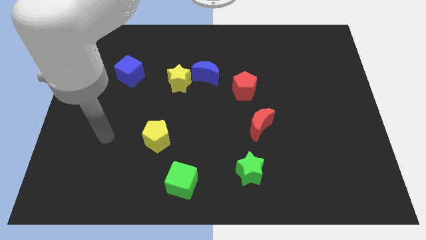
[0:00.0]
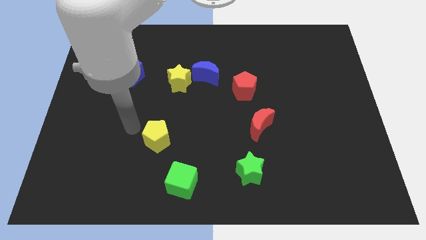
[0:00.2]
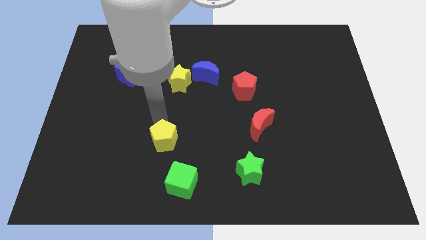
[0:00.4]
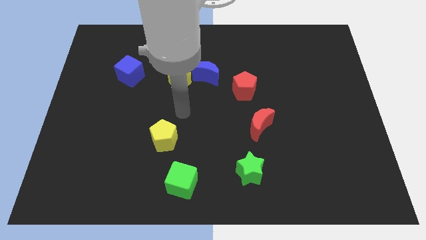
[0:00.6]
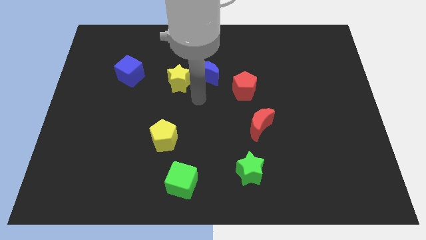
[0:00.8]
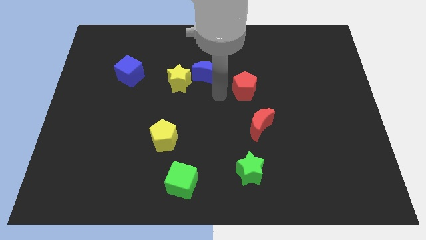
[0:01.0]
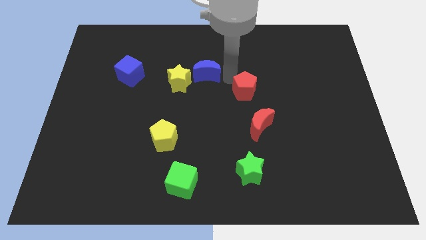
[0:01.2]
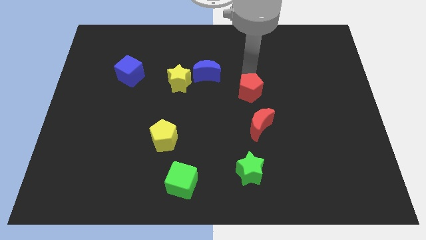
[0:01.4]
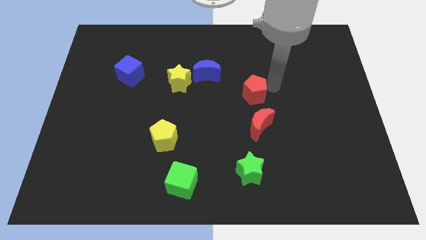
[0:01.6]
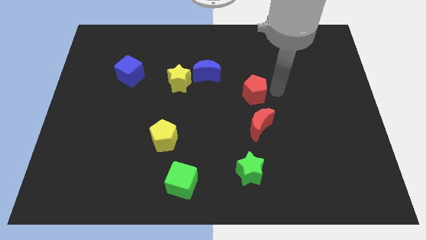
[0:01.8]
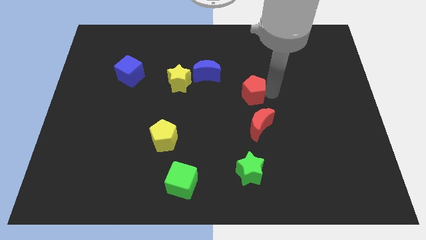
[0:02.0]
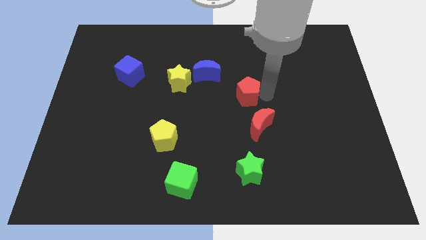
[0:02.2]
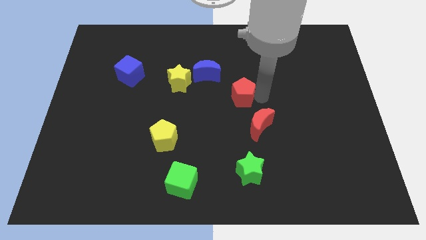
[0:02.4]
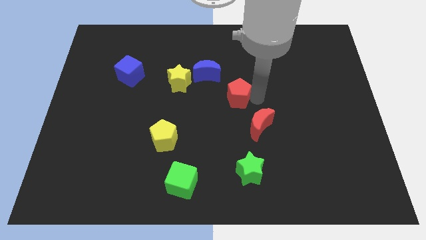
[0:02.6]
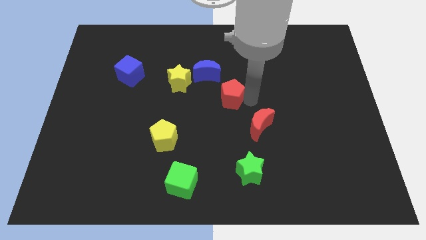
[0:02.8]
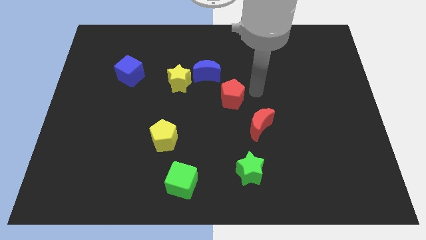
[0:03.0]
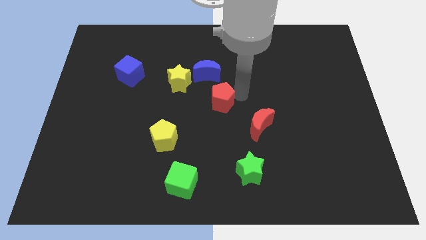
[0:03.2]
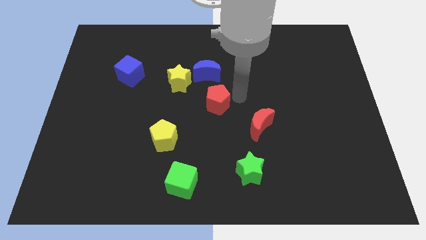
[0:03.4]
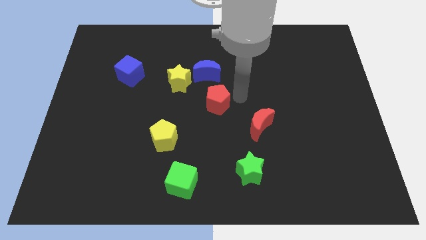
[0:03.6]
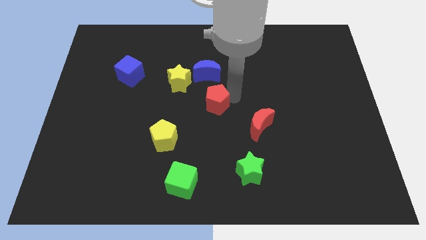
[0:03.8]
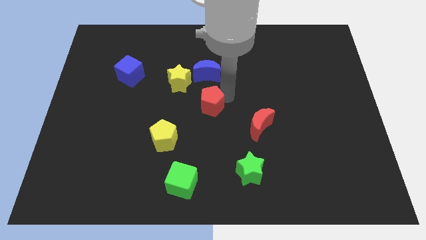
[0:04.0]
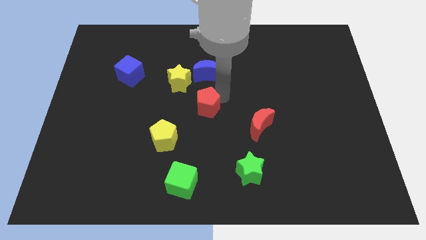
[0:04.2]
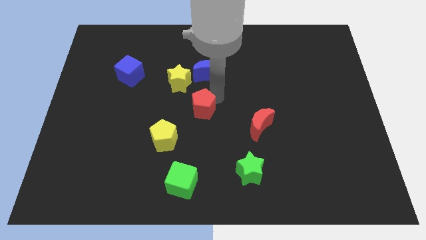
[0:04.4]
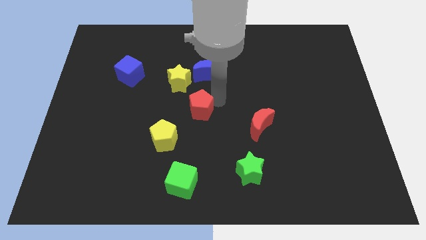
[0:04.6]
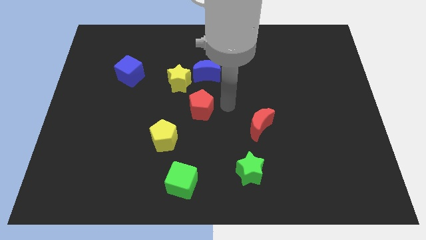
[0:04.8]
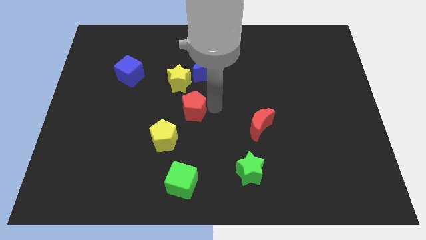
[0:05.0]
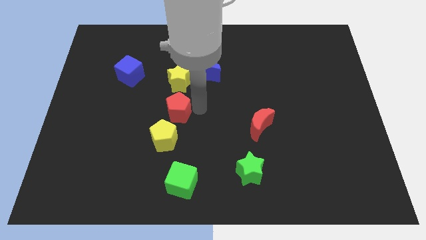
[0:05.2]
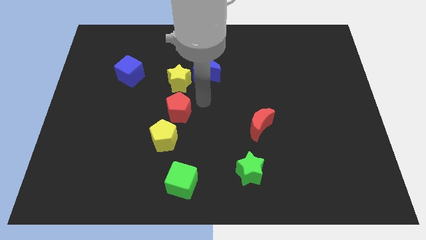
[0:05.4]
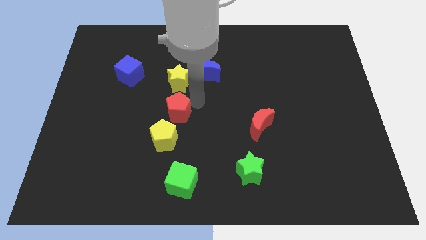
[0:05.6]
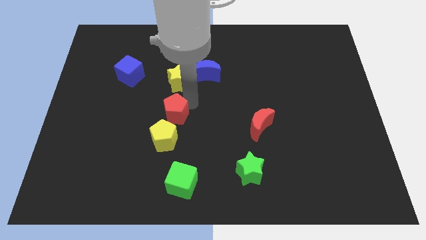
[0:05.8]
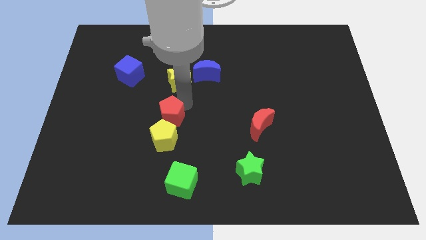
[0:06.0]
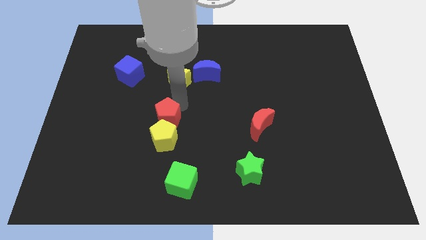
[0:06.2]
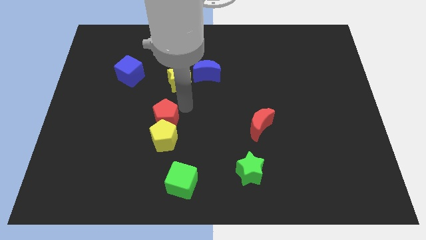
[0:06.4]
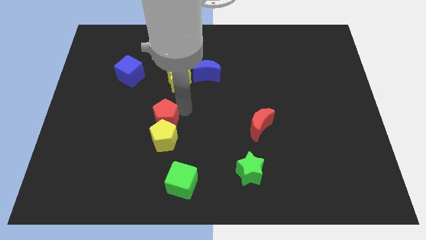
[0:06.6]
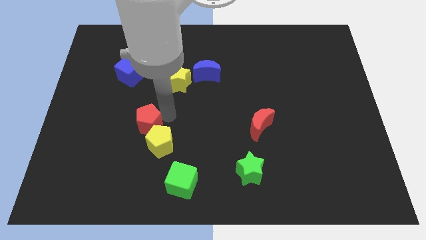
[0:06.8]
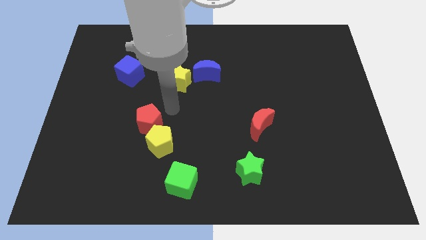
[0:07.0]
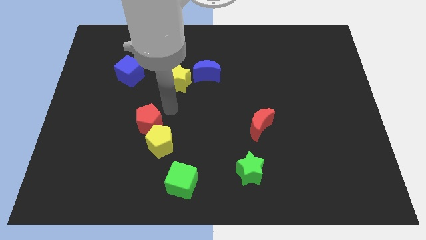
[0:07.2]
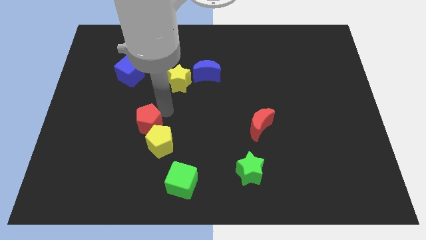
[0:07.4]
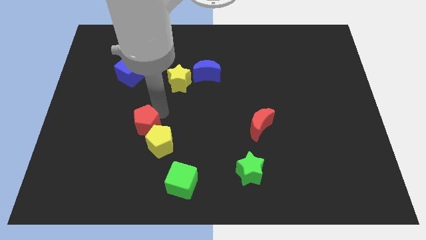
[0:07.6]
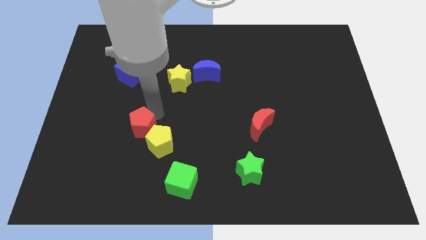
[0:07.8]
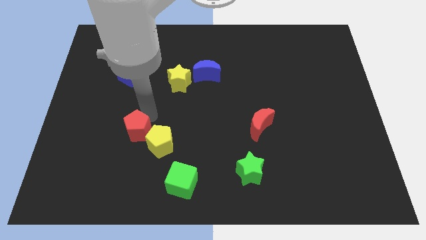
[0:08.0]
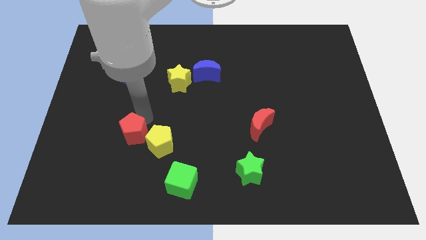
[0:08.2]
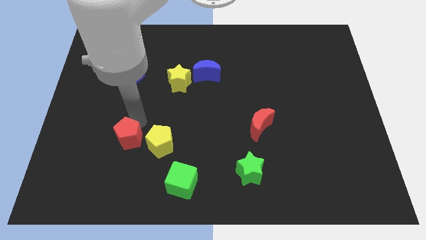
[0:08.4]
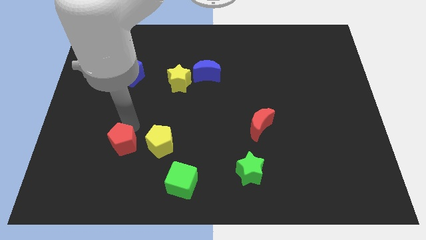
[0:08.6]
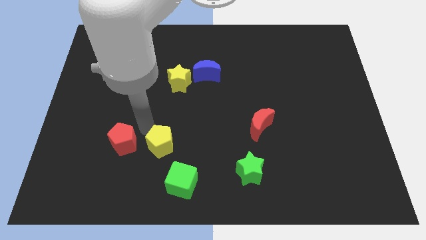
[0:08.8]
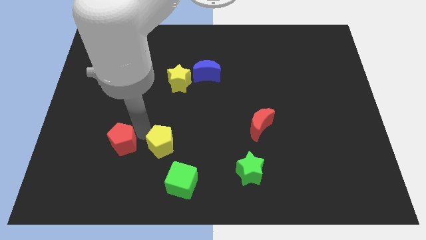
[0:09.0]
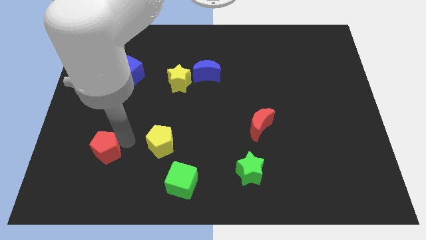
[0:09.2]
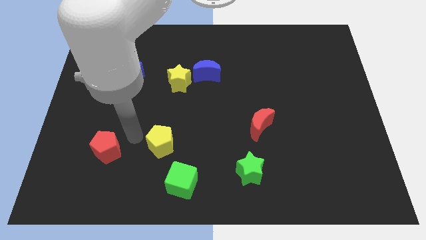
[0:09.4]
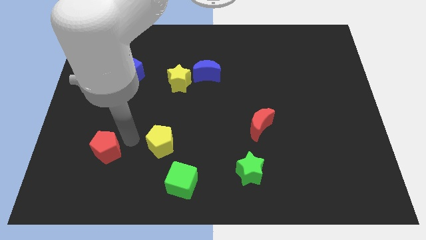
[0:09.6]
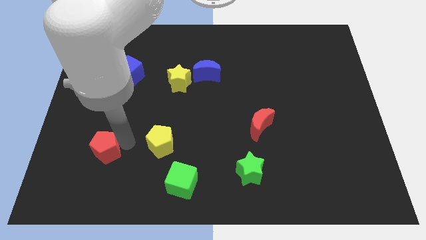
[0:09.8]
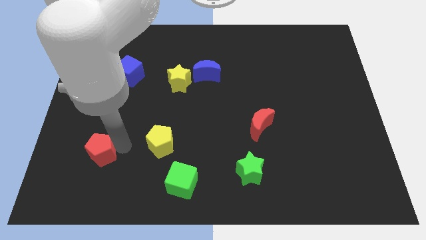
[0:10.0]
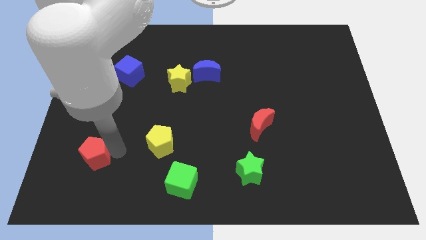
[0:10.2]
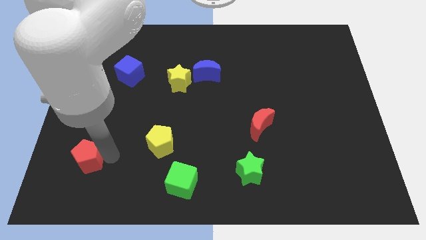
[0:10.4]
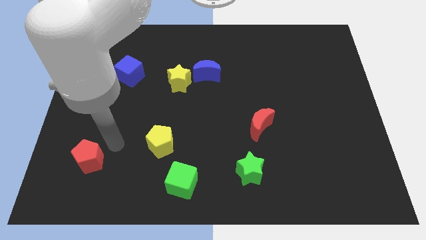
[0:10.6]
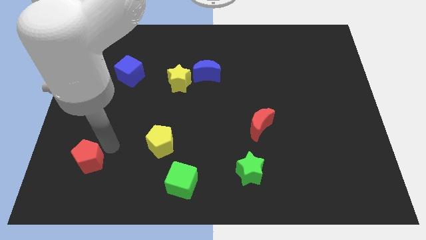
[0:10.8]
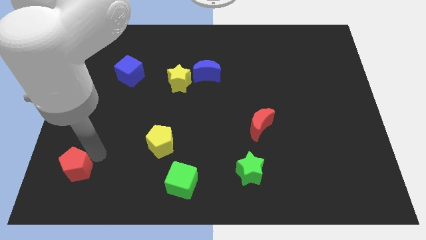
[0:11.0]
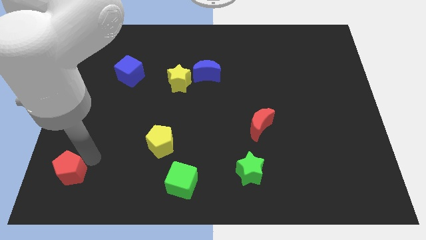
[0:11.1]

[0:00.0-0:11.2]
move the red pentagon to the lower left corner

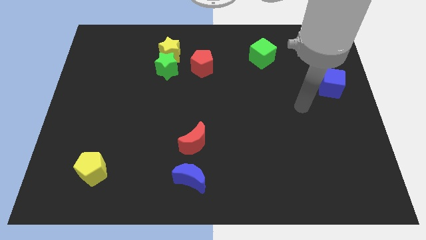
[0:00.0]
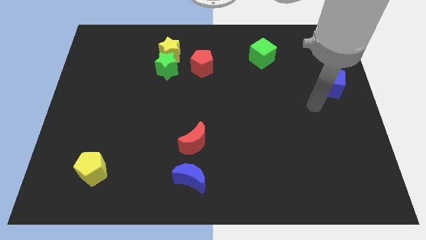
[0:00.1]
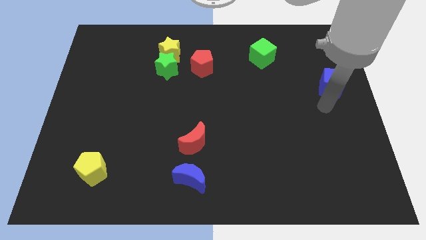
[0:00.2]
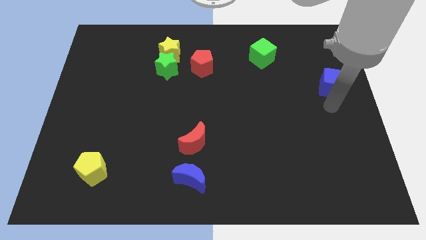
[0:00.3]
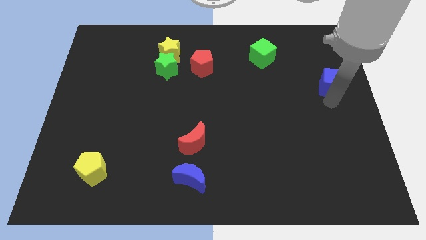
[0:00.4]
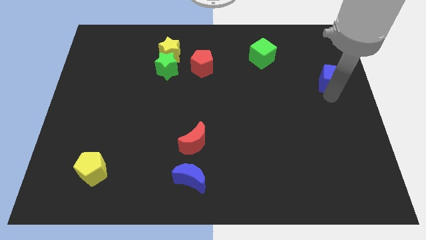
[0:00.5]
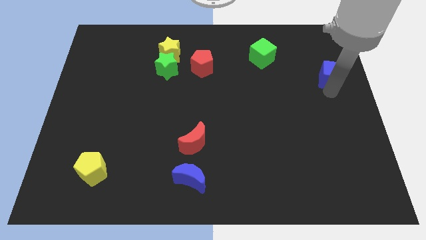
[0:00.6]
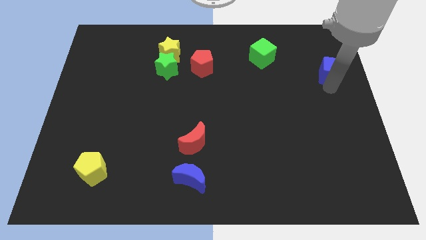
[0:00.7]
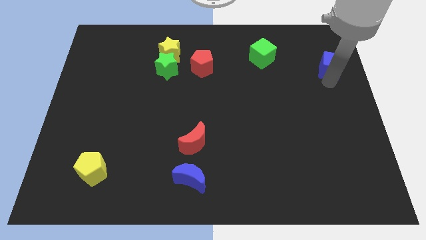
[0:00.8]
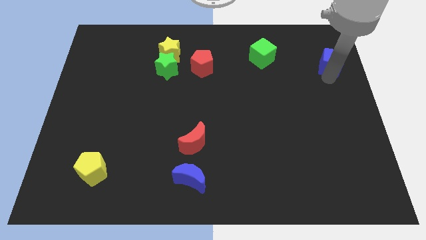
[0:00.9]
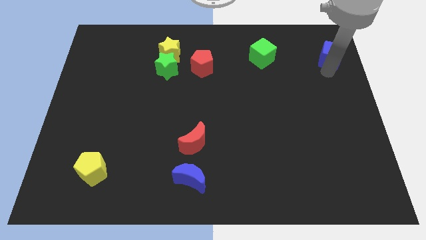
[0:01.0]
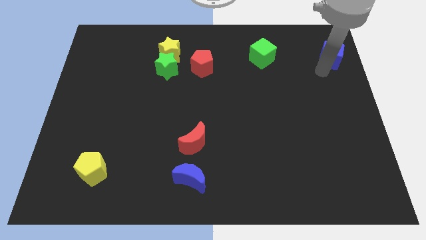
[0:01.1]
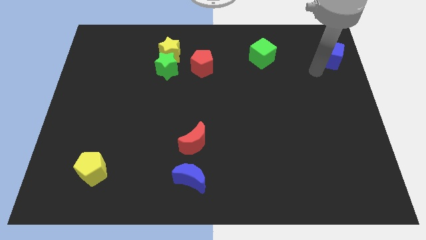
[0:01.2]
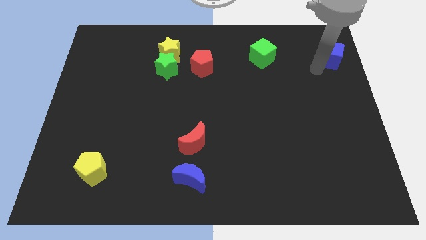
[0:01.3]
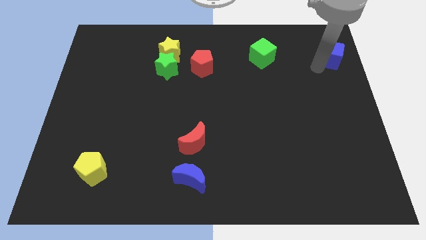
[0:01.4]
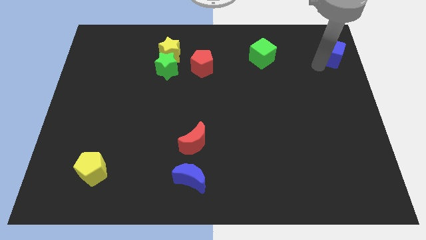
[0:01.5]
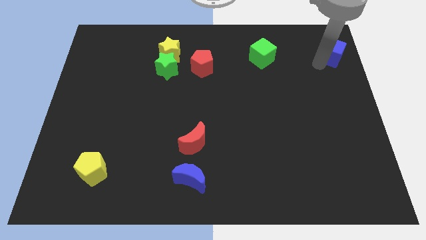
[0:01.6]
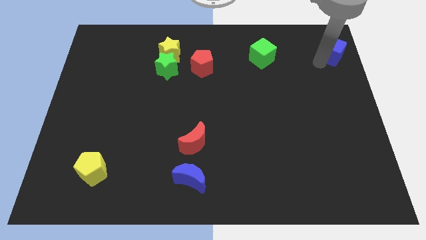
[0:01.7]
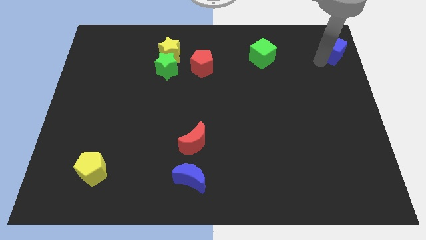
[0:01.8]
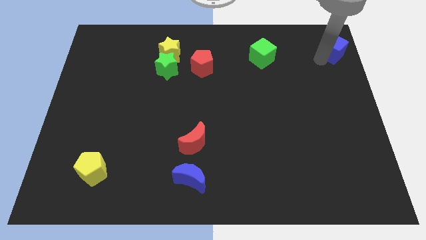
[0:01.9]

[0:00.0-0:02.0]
move the blue cube to the top right
